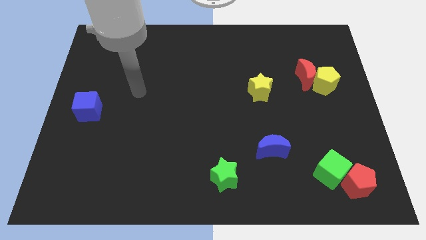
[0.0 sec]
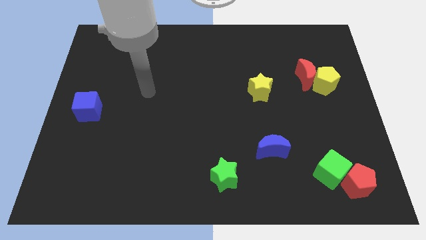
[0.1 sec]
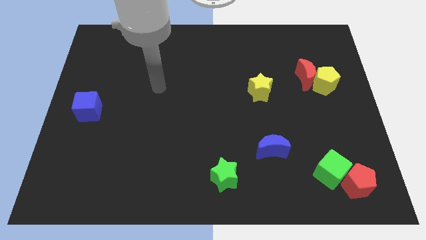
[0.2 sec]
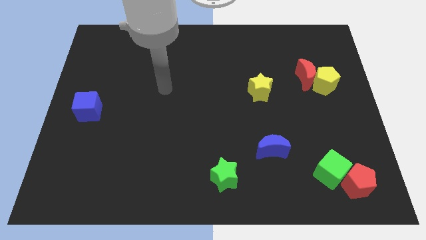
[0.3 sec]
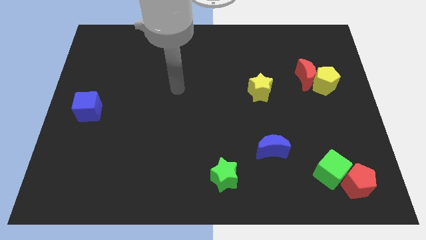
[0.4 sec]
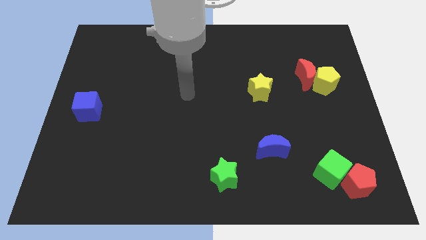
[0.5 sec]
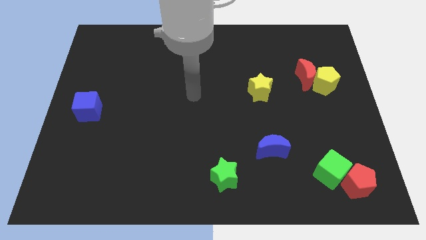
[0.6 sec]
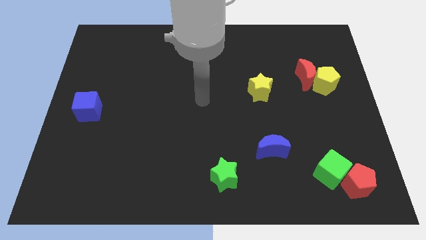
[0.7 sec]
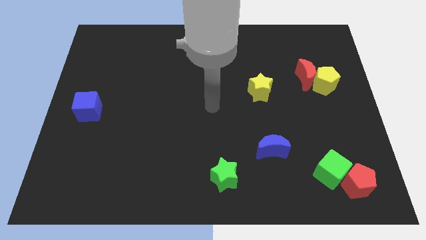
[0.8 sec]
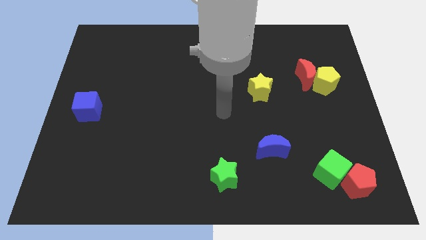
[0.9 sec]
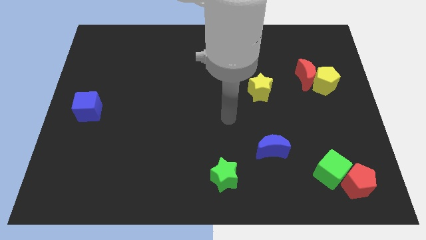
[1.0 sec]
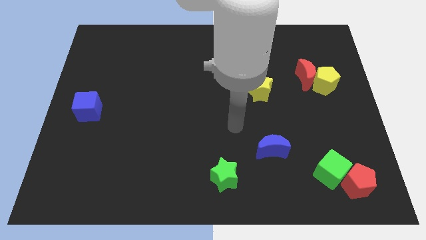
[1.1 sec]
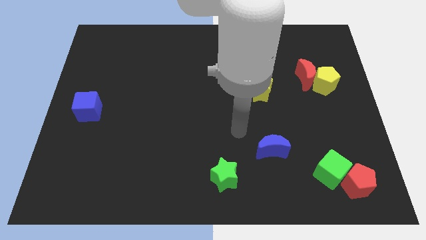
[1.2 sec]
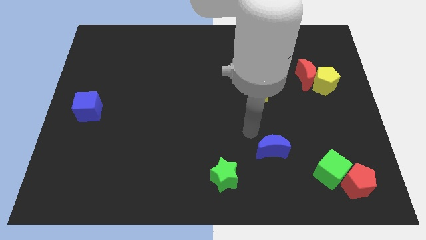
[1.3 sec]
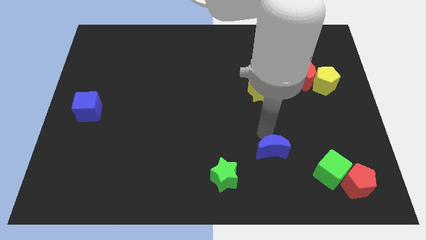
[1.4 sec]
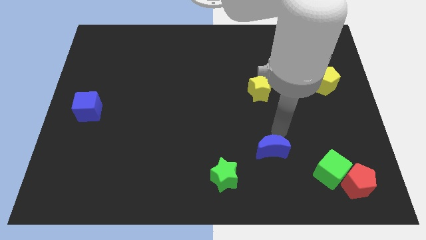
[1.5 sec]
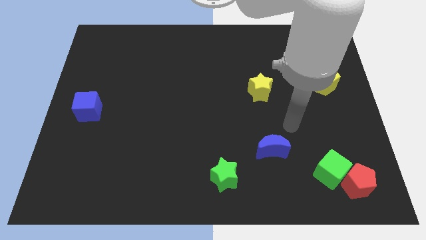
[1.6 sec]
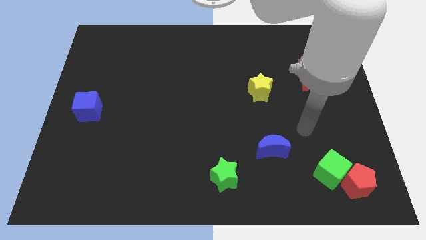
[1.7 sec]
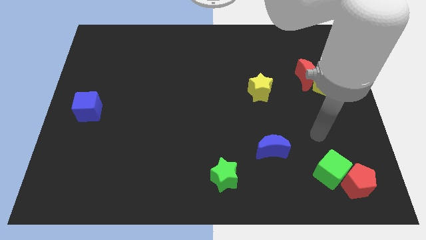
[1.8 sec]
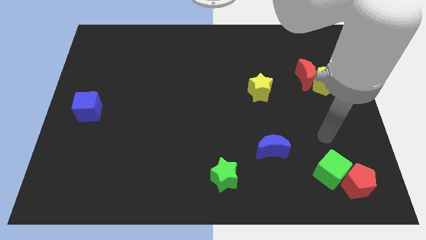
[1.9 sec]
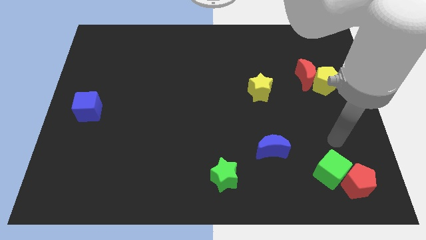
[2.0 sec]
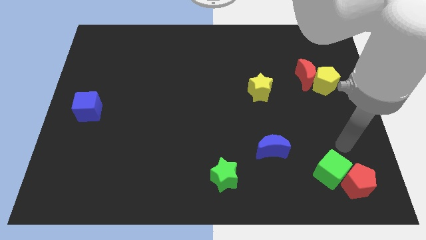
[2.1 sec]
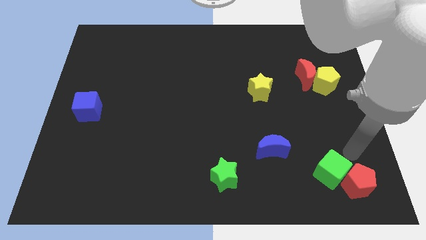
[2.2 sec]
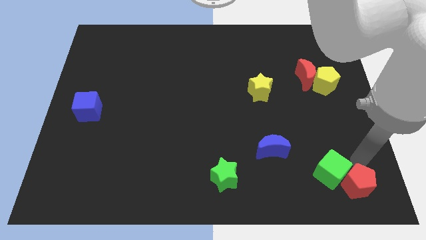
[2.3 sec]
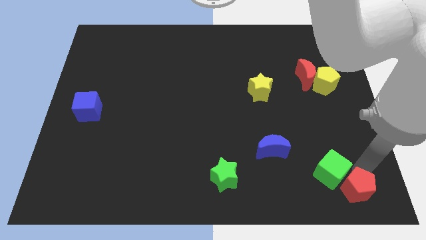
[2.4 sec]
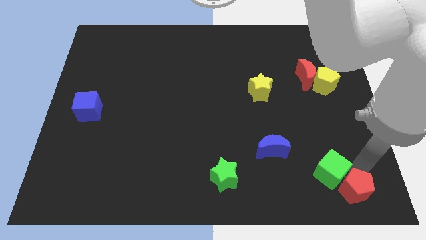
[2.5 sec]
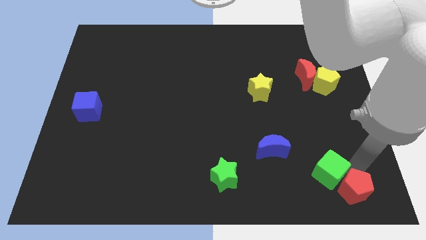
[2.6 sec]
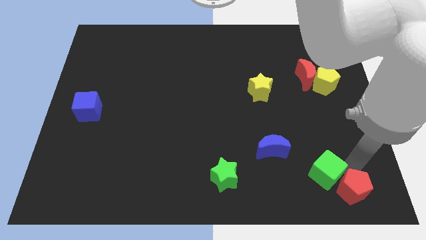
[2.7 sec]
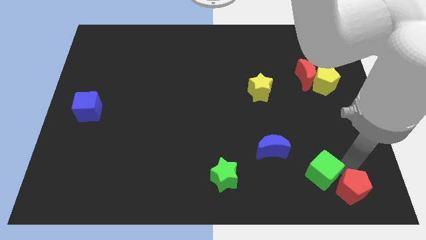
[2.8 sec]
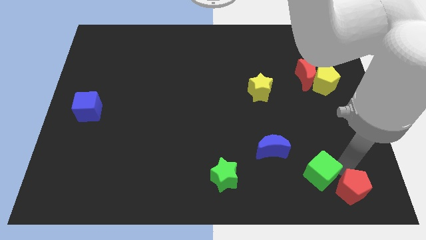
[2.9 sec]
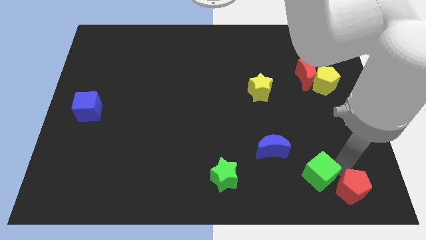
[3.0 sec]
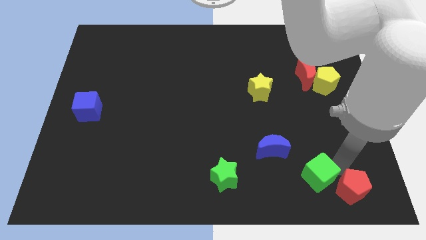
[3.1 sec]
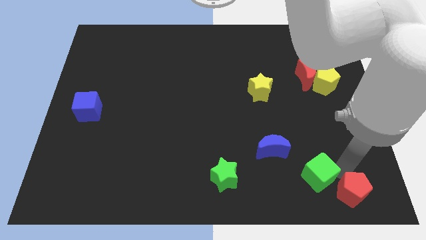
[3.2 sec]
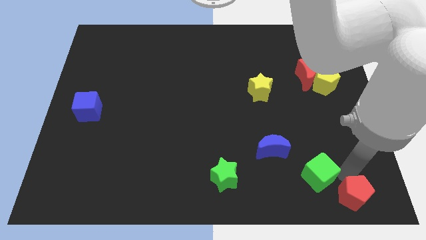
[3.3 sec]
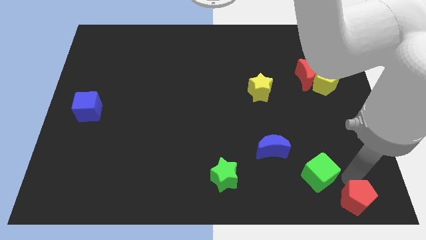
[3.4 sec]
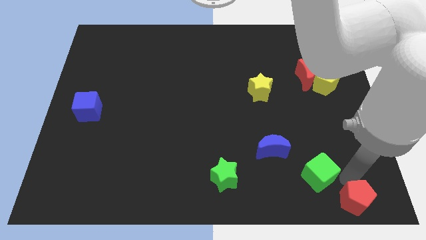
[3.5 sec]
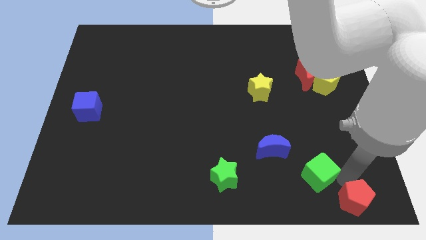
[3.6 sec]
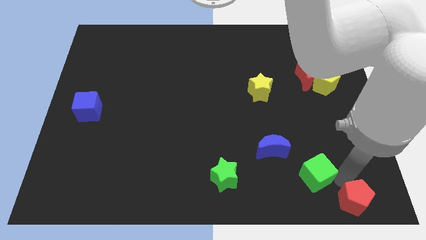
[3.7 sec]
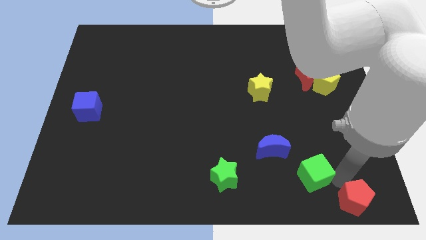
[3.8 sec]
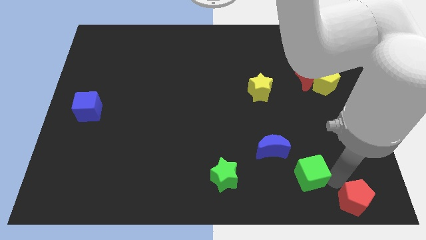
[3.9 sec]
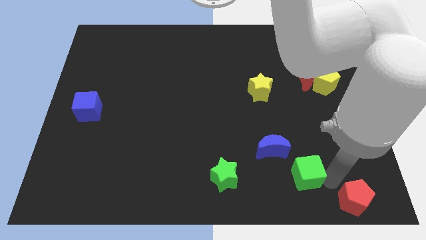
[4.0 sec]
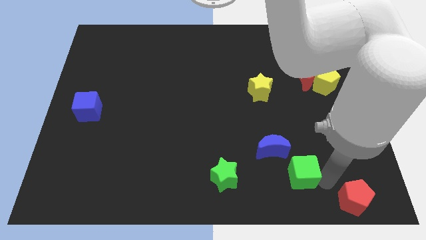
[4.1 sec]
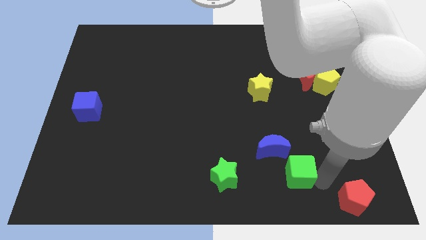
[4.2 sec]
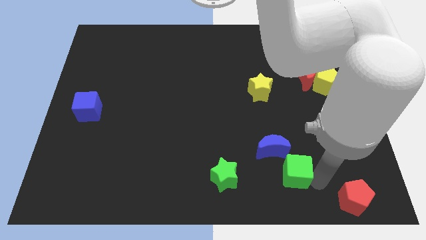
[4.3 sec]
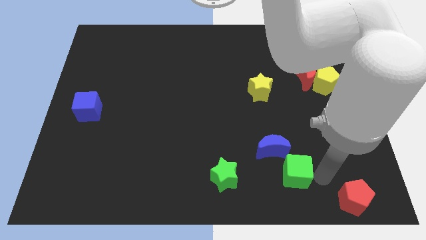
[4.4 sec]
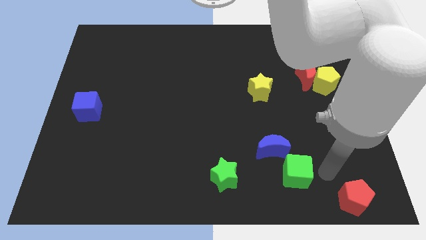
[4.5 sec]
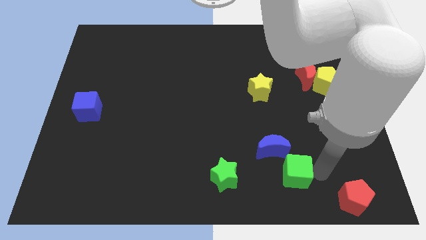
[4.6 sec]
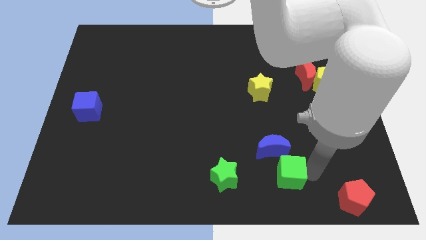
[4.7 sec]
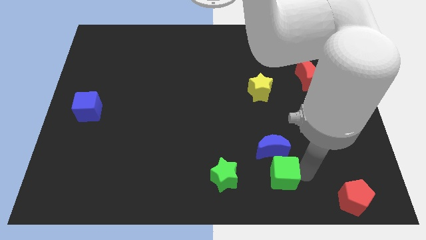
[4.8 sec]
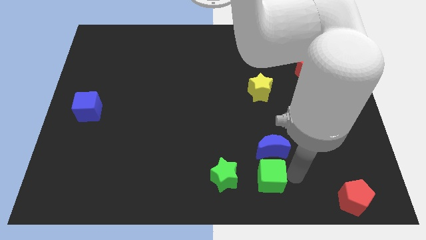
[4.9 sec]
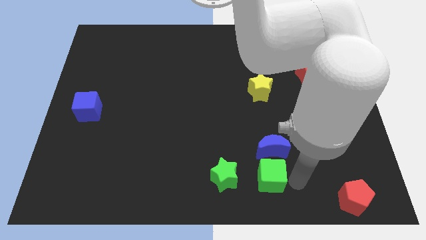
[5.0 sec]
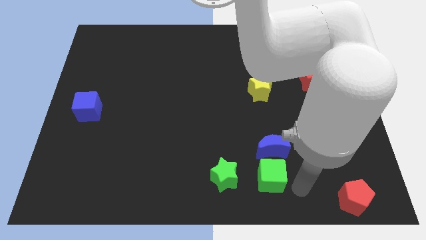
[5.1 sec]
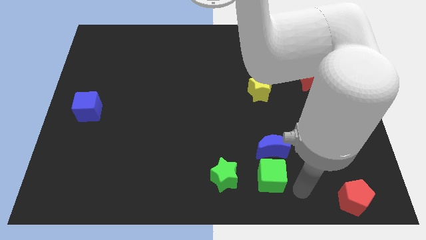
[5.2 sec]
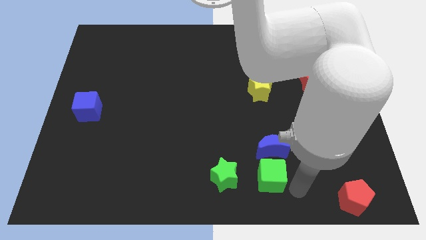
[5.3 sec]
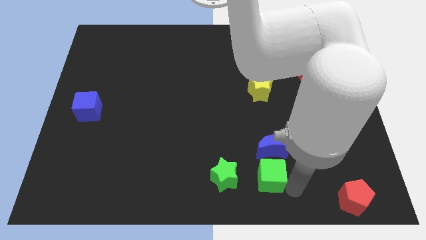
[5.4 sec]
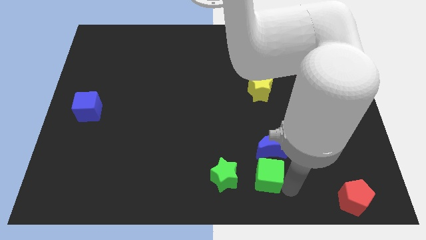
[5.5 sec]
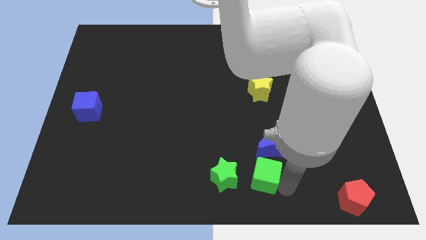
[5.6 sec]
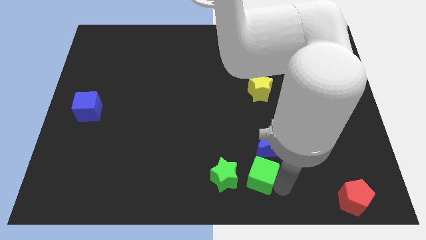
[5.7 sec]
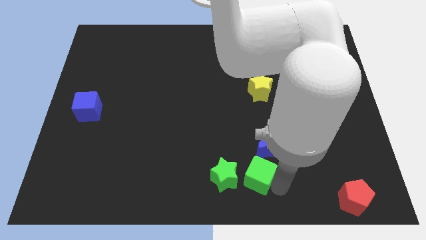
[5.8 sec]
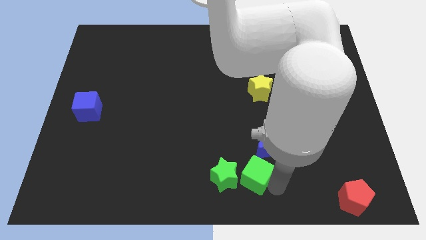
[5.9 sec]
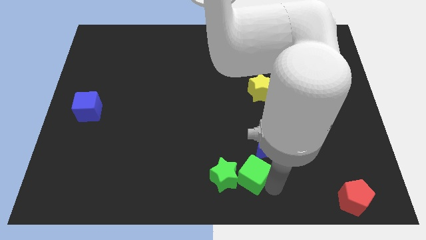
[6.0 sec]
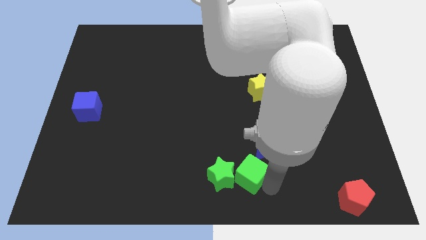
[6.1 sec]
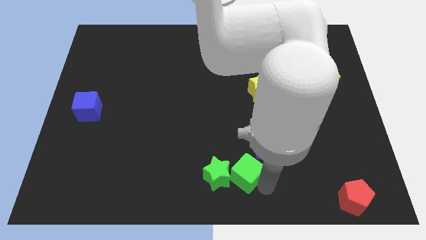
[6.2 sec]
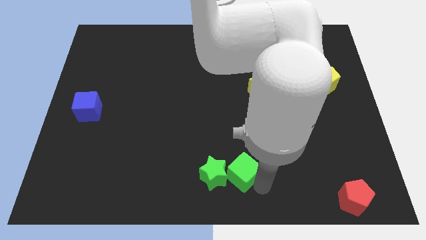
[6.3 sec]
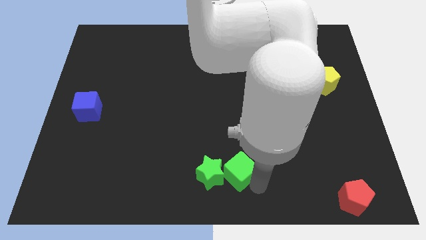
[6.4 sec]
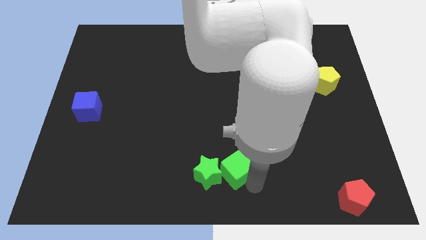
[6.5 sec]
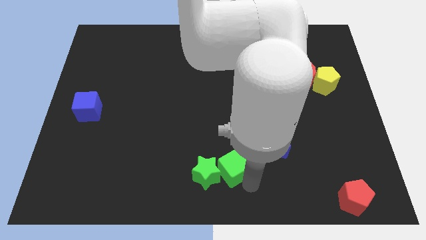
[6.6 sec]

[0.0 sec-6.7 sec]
move the green cube left

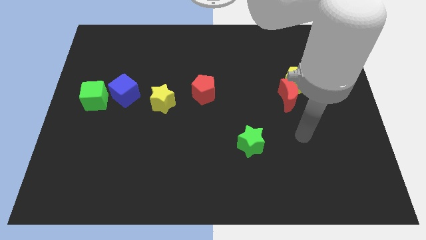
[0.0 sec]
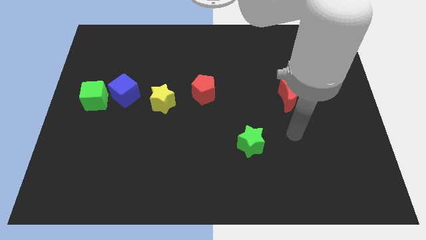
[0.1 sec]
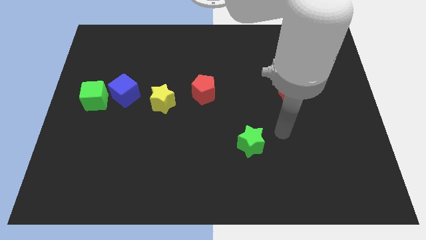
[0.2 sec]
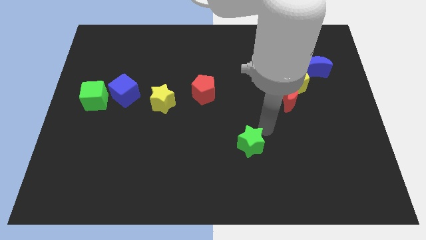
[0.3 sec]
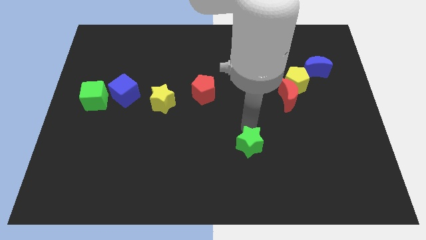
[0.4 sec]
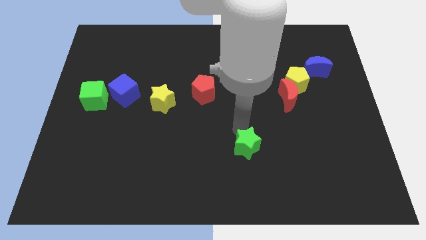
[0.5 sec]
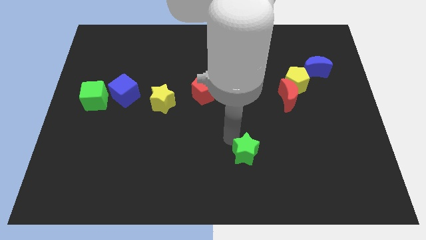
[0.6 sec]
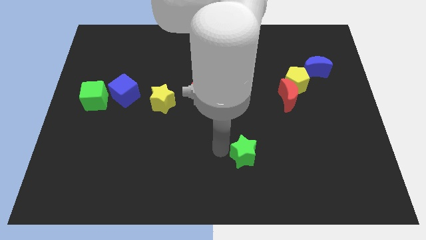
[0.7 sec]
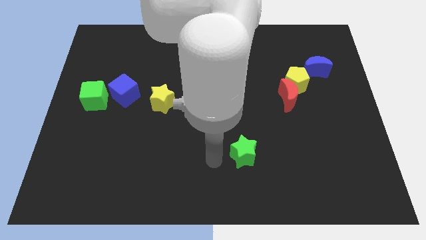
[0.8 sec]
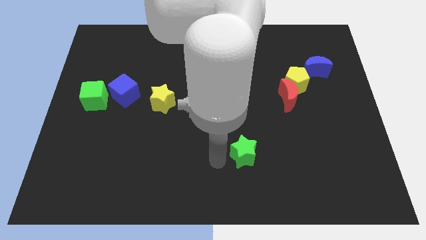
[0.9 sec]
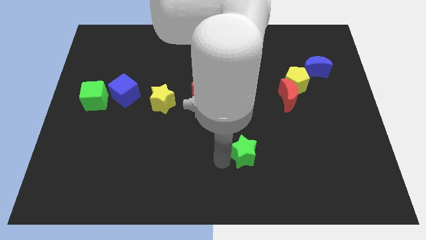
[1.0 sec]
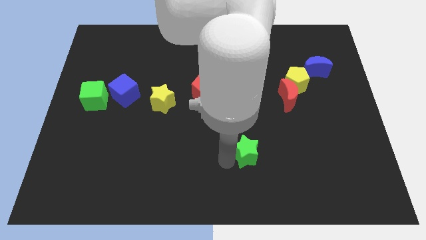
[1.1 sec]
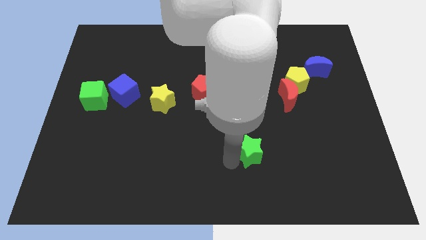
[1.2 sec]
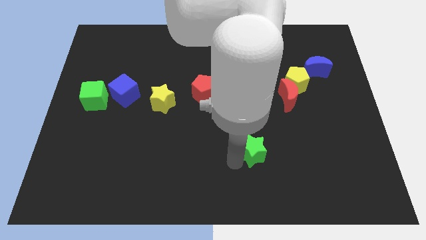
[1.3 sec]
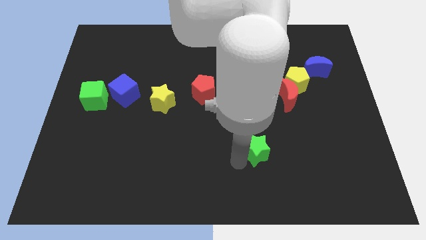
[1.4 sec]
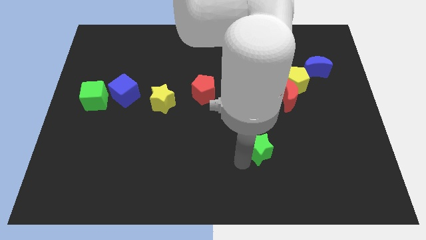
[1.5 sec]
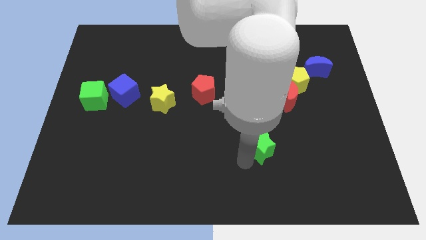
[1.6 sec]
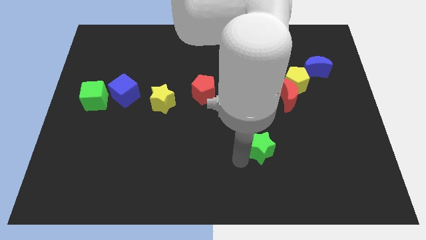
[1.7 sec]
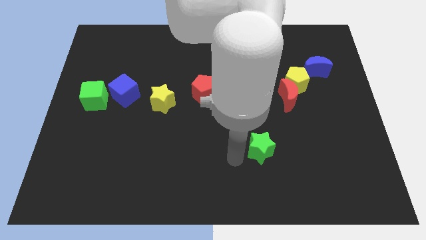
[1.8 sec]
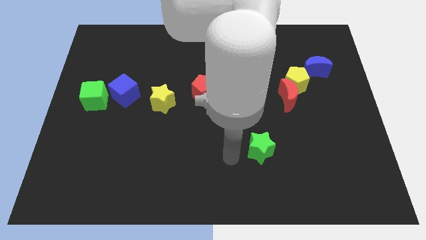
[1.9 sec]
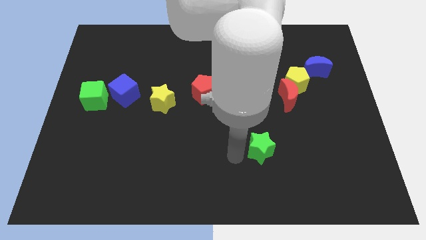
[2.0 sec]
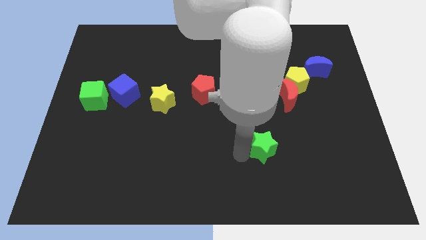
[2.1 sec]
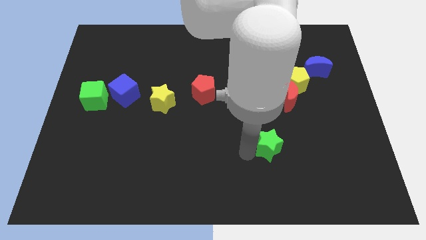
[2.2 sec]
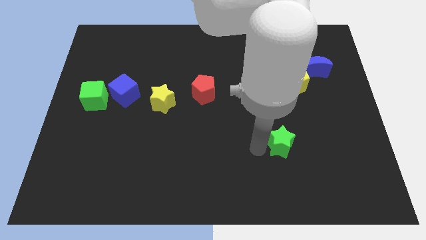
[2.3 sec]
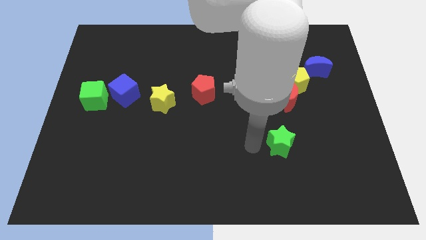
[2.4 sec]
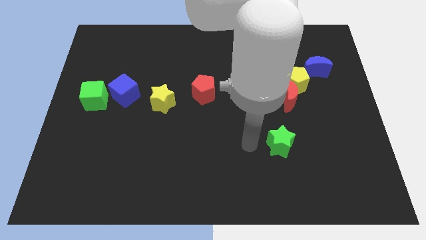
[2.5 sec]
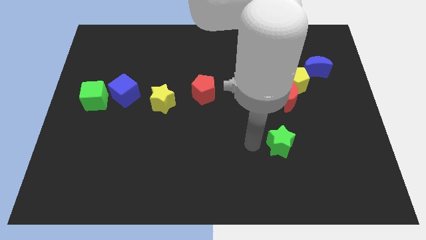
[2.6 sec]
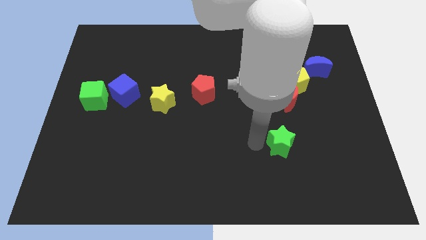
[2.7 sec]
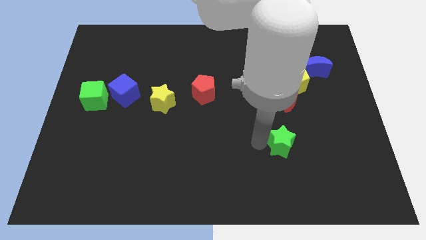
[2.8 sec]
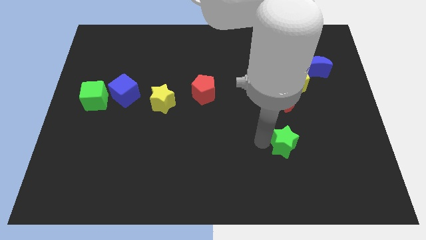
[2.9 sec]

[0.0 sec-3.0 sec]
slide the green star right a little bit
